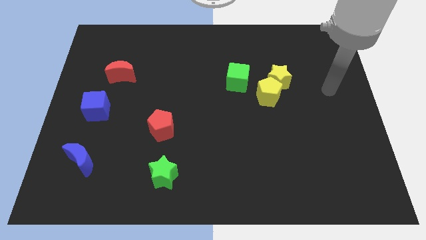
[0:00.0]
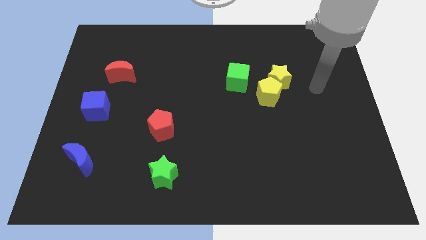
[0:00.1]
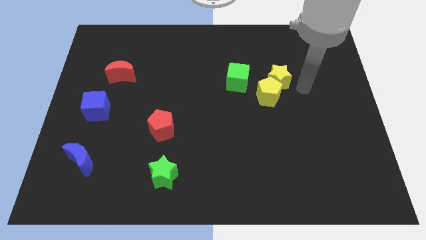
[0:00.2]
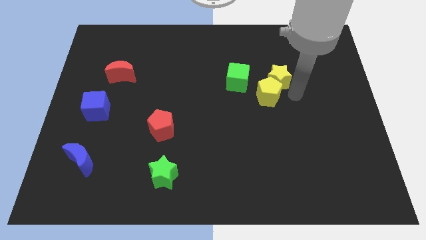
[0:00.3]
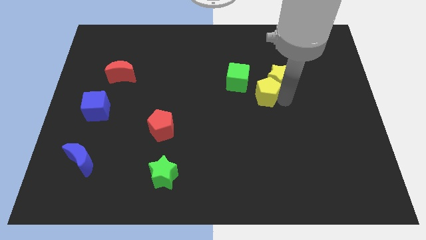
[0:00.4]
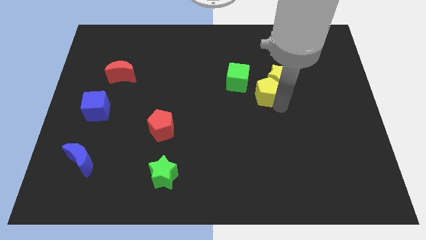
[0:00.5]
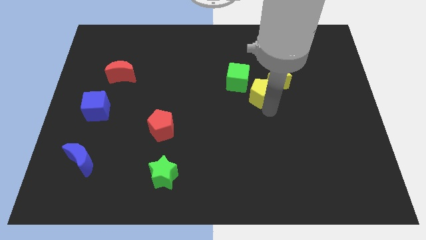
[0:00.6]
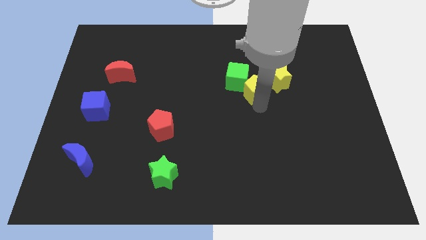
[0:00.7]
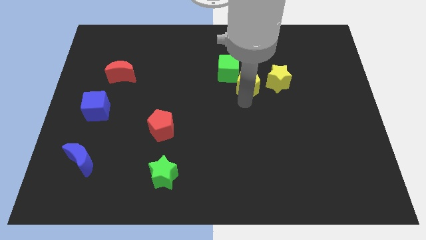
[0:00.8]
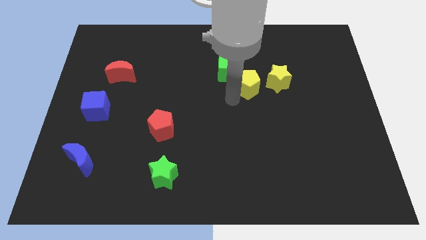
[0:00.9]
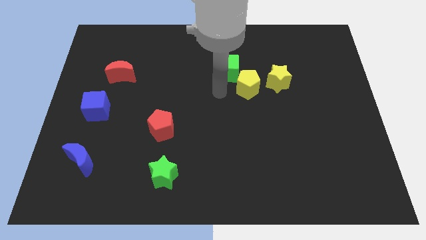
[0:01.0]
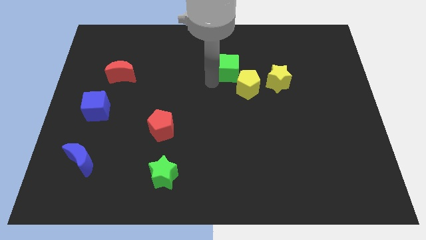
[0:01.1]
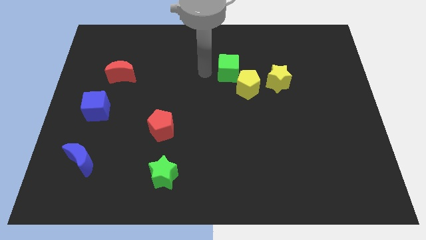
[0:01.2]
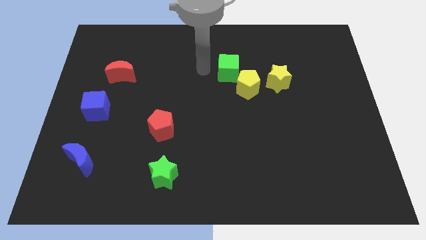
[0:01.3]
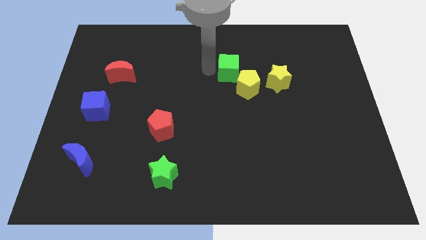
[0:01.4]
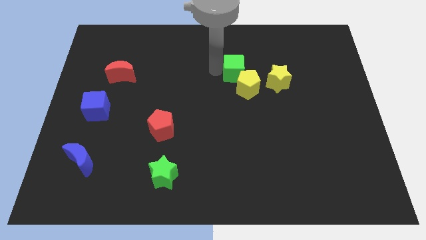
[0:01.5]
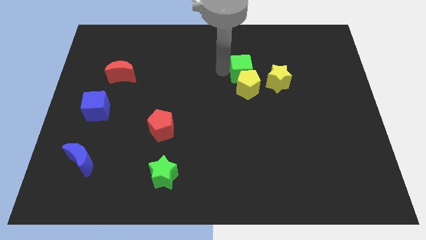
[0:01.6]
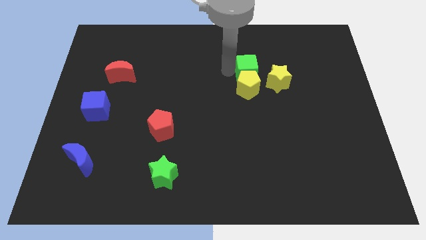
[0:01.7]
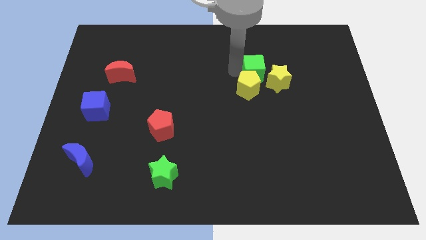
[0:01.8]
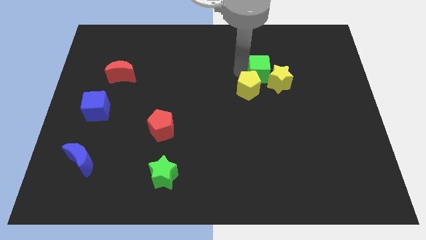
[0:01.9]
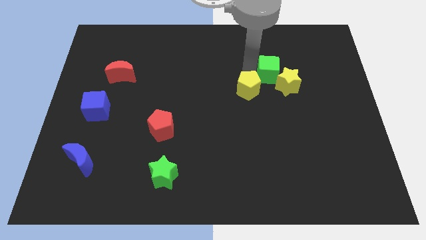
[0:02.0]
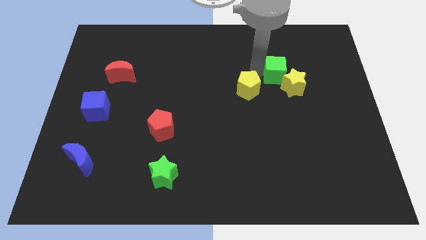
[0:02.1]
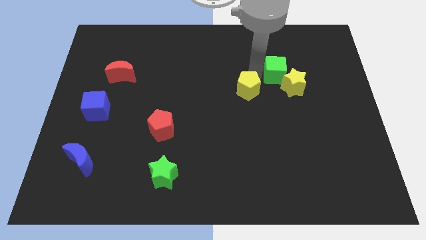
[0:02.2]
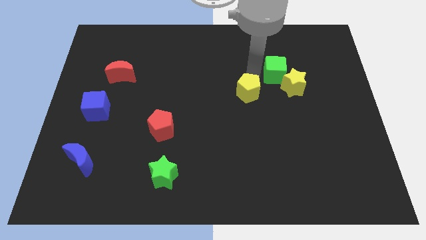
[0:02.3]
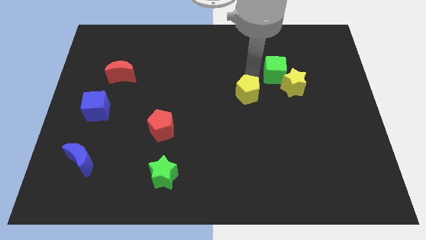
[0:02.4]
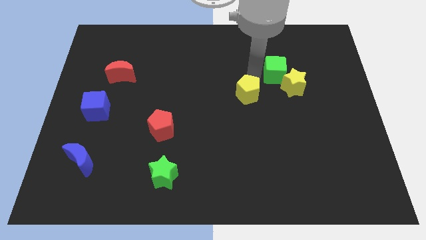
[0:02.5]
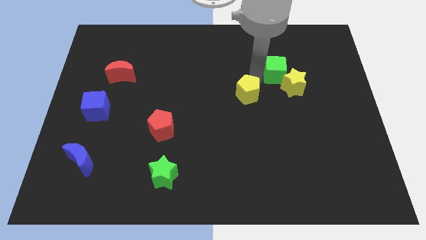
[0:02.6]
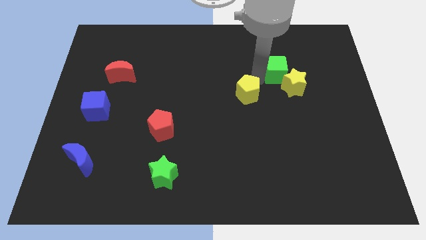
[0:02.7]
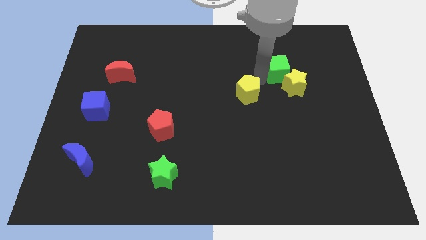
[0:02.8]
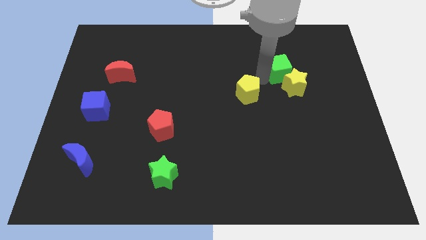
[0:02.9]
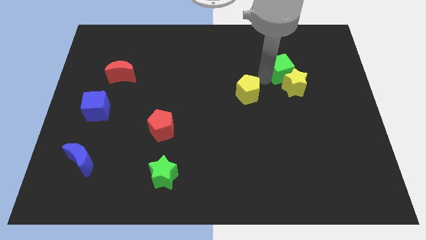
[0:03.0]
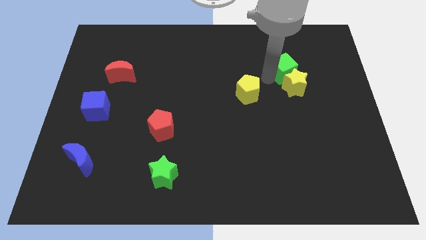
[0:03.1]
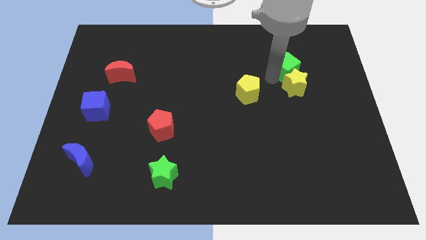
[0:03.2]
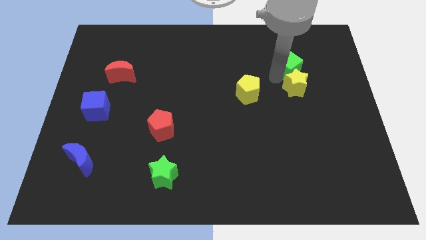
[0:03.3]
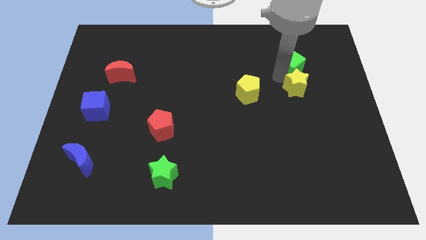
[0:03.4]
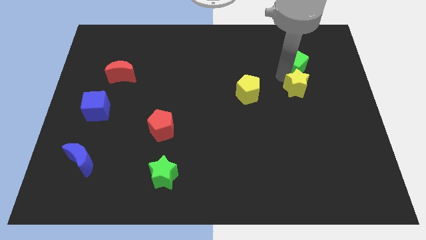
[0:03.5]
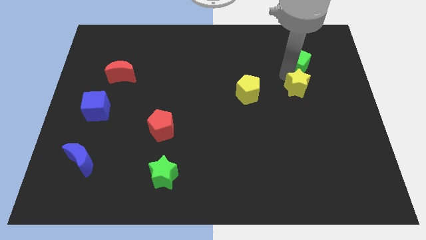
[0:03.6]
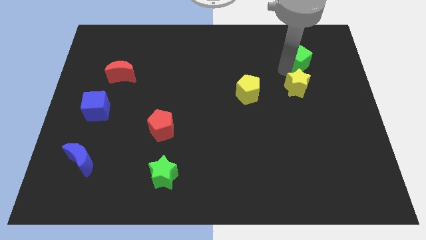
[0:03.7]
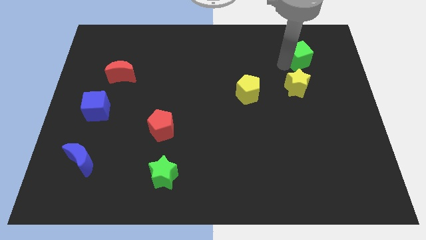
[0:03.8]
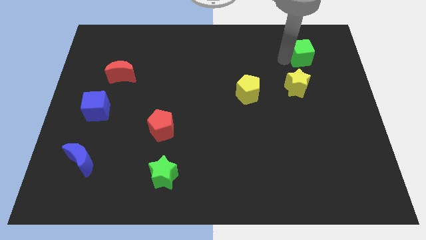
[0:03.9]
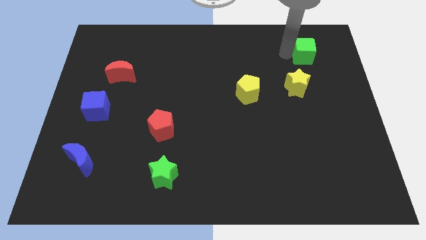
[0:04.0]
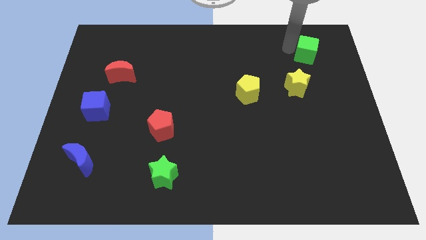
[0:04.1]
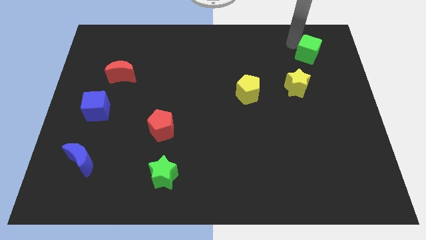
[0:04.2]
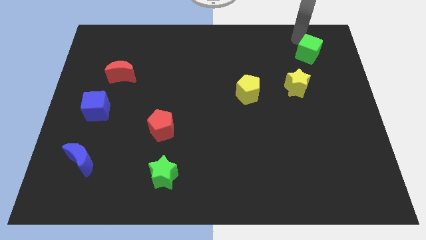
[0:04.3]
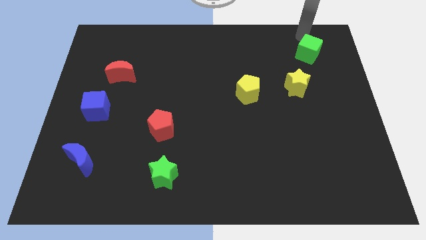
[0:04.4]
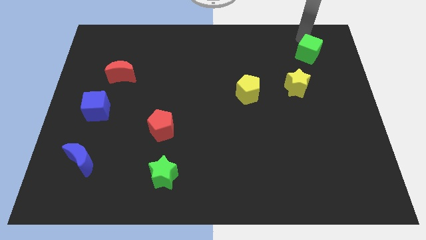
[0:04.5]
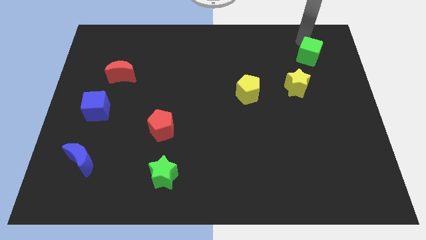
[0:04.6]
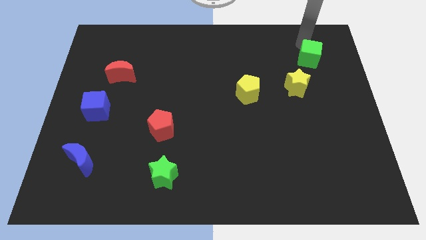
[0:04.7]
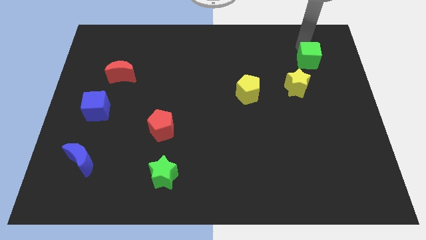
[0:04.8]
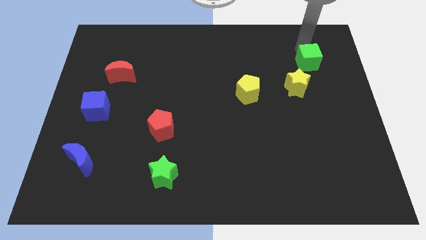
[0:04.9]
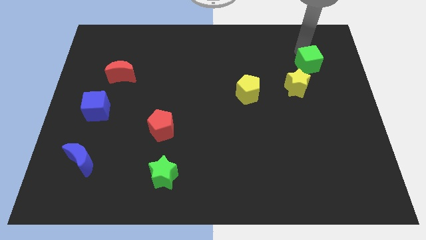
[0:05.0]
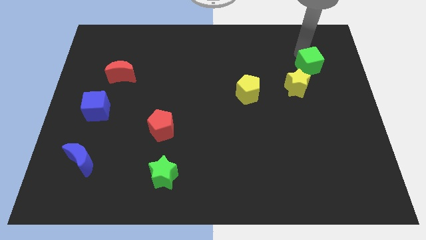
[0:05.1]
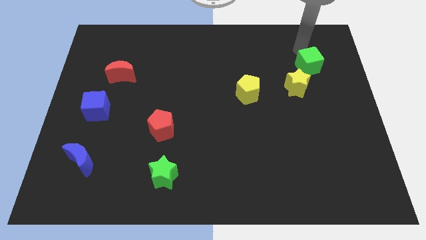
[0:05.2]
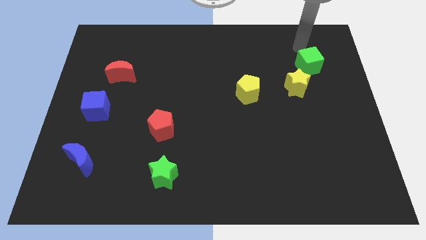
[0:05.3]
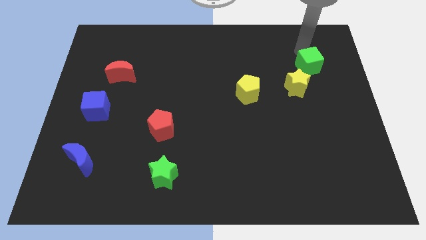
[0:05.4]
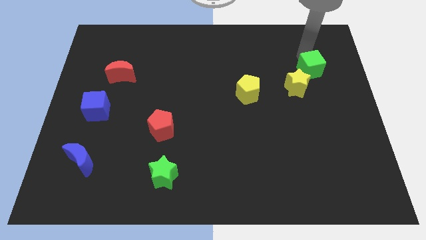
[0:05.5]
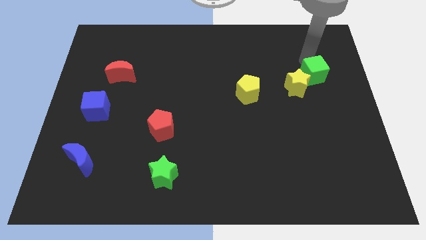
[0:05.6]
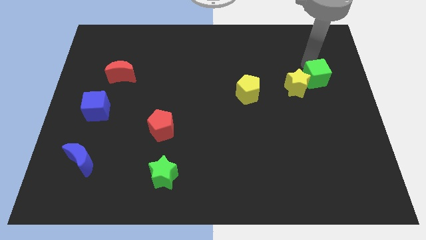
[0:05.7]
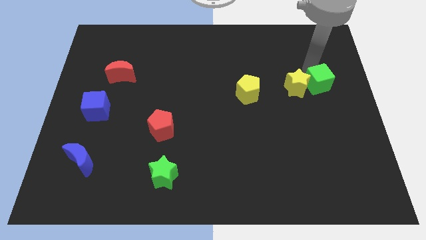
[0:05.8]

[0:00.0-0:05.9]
push the green cube to the center right
